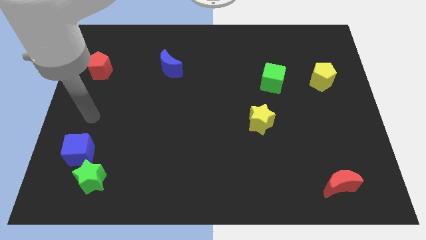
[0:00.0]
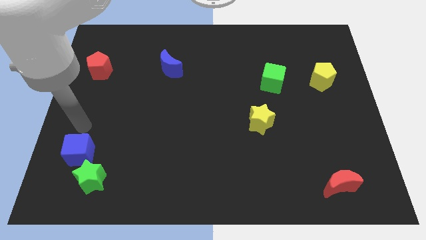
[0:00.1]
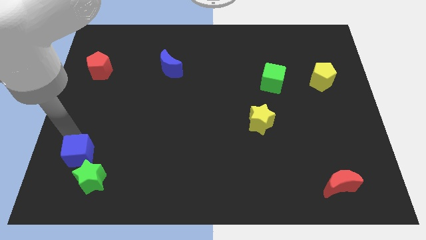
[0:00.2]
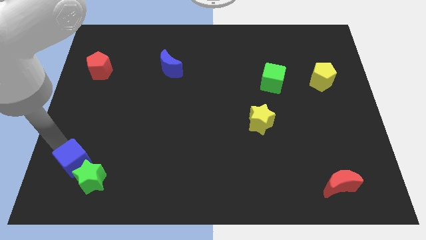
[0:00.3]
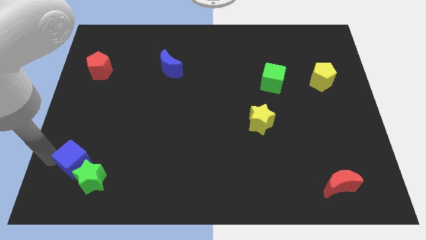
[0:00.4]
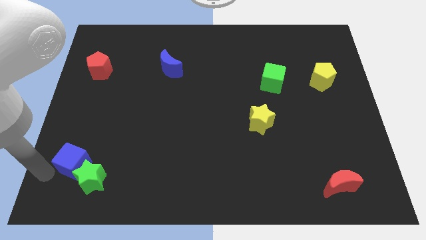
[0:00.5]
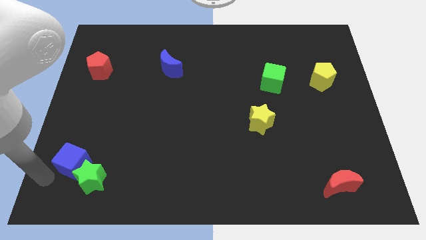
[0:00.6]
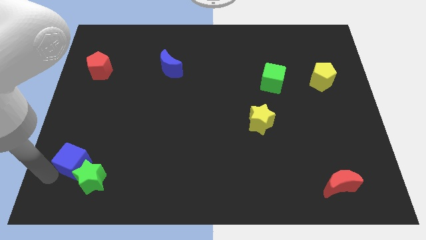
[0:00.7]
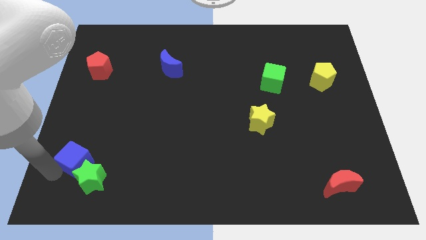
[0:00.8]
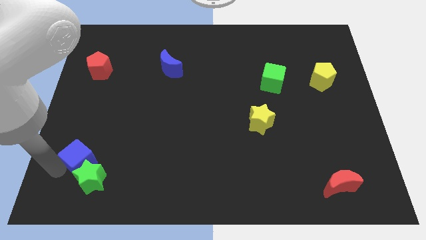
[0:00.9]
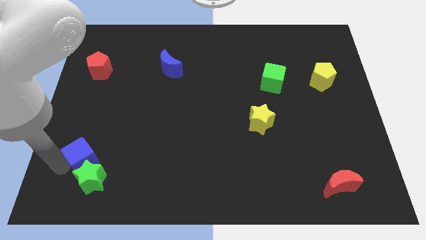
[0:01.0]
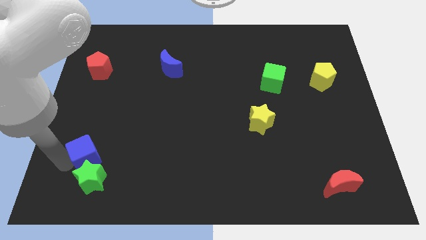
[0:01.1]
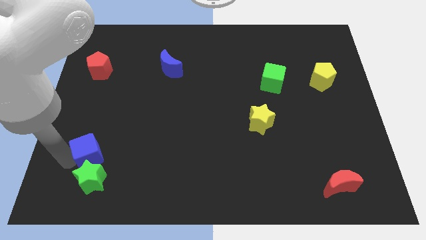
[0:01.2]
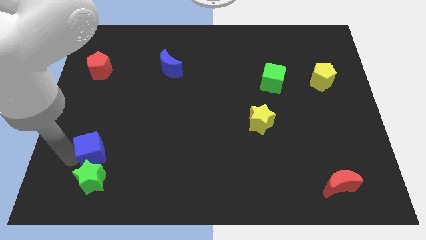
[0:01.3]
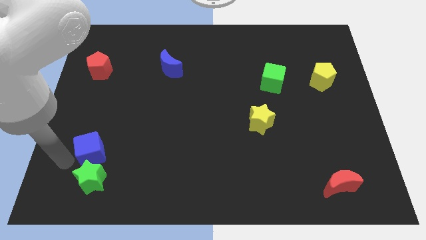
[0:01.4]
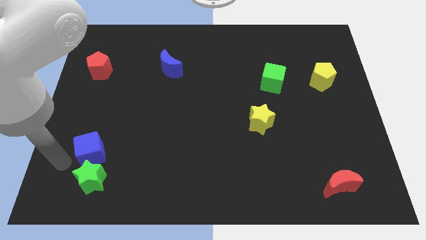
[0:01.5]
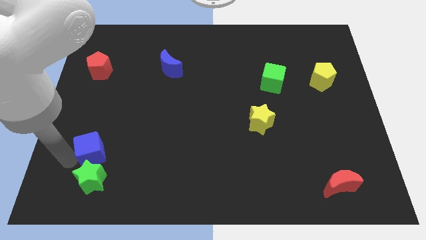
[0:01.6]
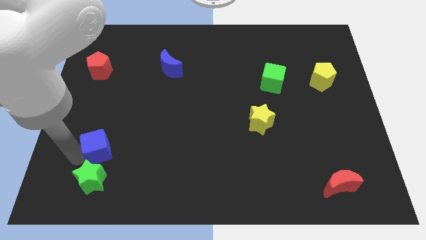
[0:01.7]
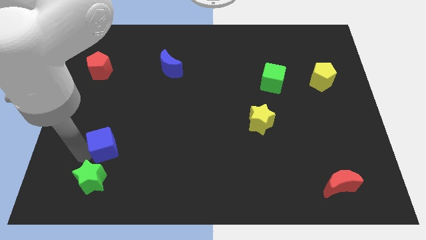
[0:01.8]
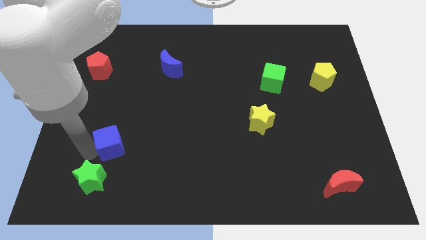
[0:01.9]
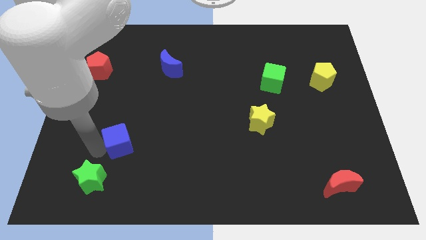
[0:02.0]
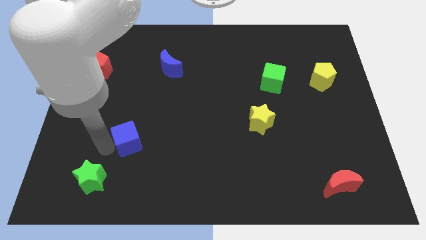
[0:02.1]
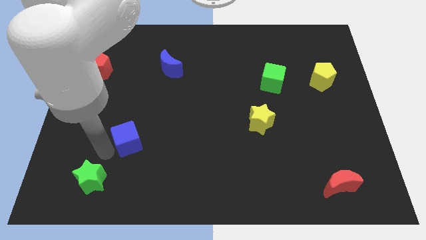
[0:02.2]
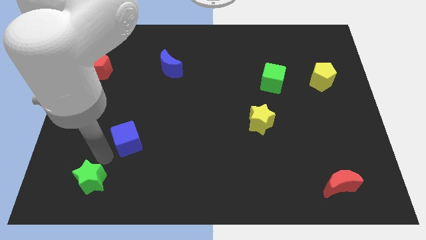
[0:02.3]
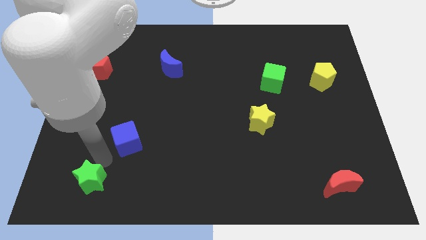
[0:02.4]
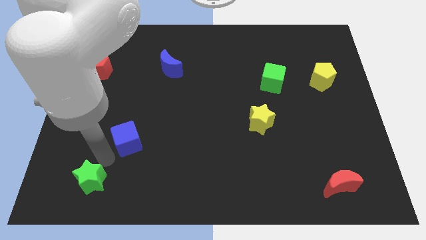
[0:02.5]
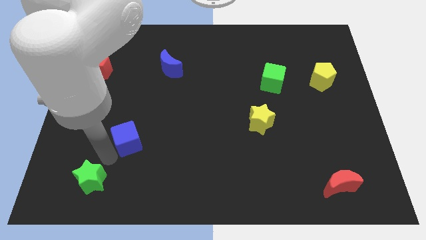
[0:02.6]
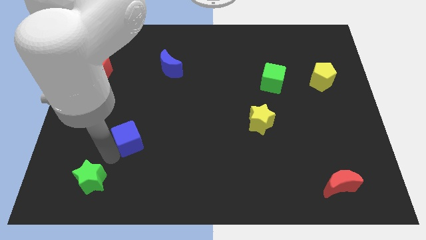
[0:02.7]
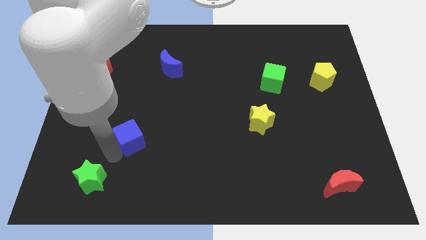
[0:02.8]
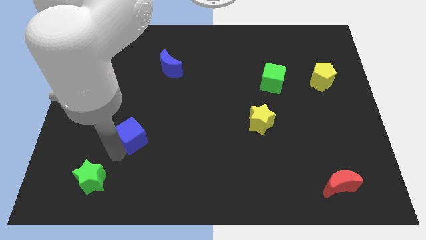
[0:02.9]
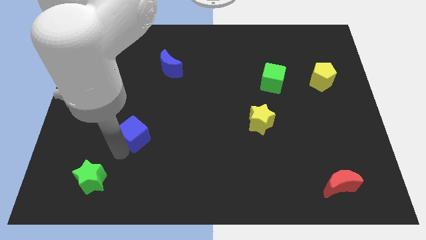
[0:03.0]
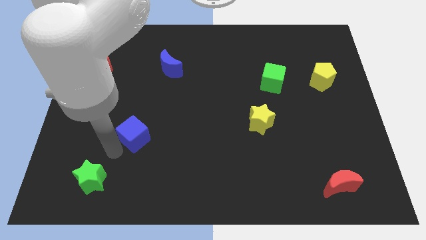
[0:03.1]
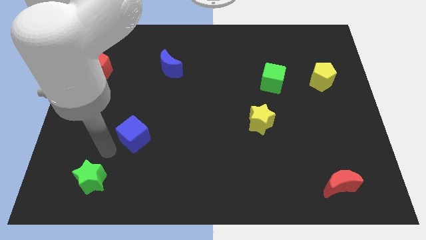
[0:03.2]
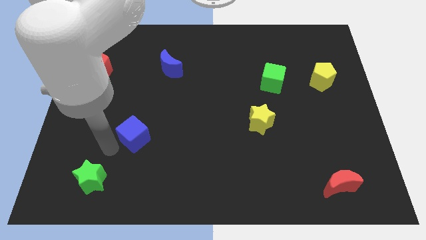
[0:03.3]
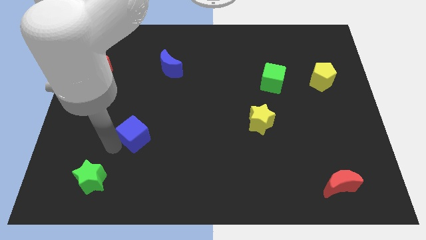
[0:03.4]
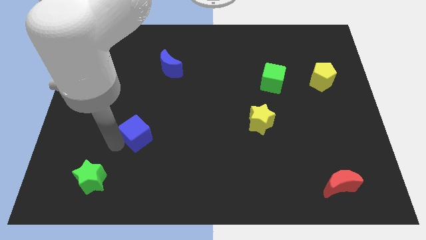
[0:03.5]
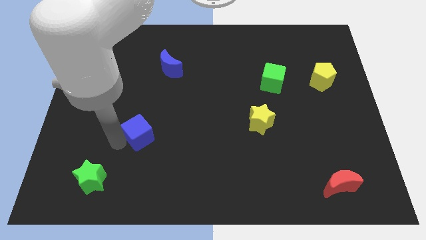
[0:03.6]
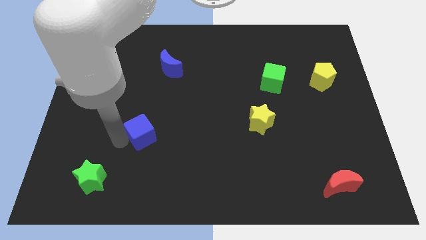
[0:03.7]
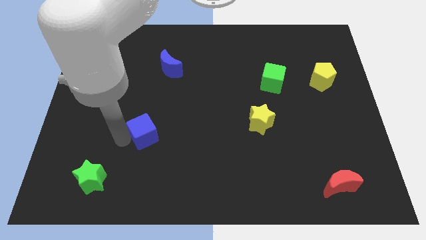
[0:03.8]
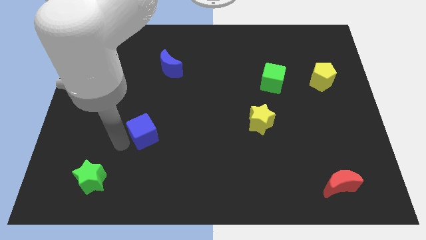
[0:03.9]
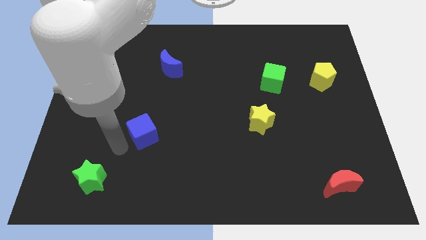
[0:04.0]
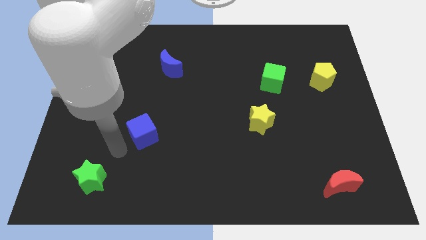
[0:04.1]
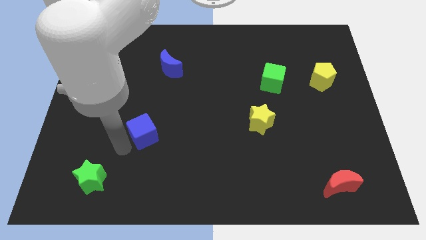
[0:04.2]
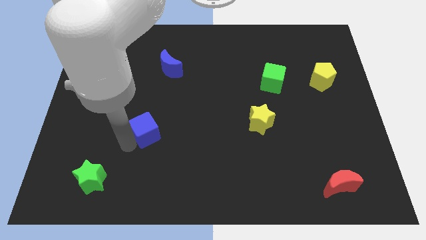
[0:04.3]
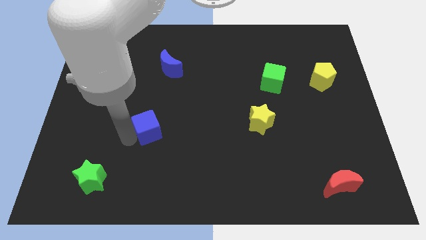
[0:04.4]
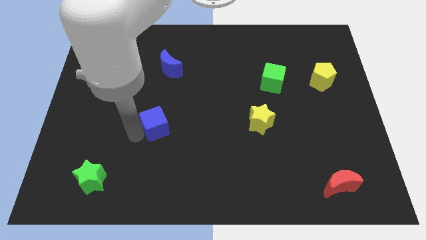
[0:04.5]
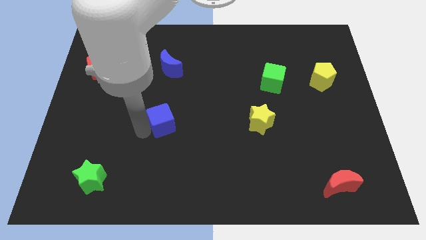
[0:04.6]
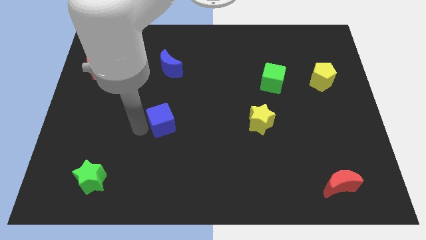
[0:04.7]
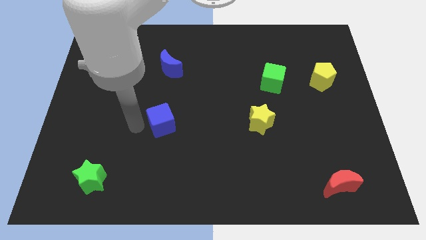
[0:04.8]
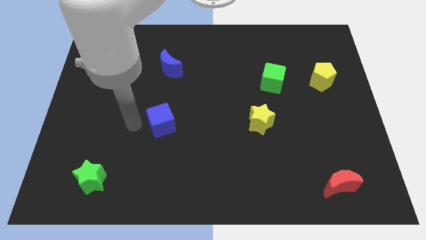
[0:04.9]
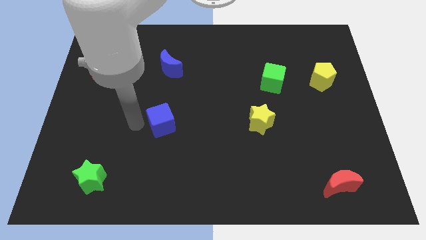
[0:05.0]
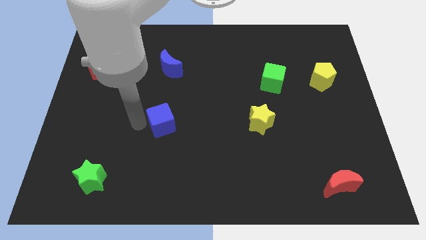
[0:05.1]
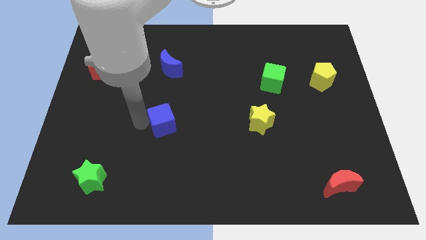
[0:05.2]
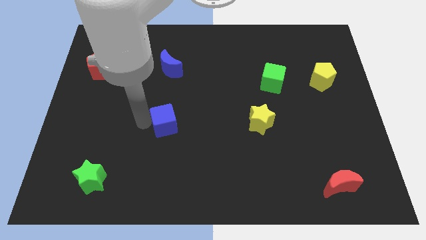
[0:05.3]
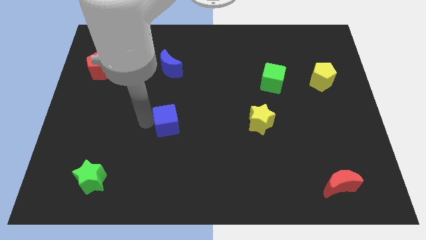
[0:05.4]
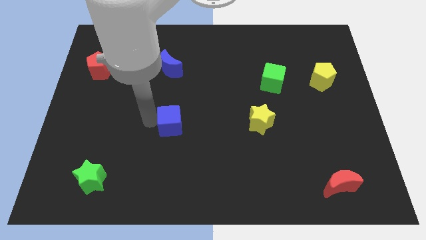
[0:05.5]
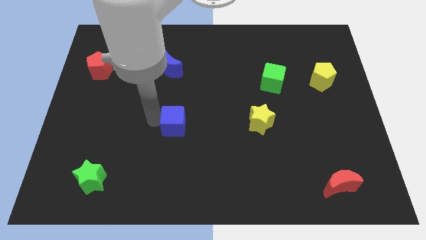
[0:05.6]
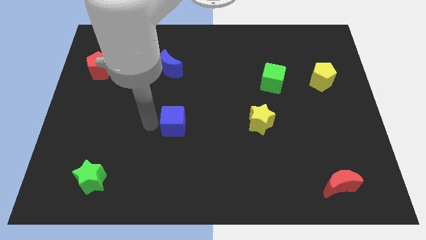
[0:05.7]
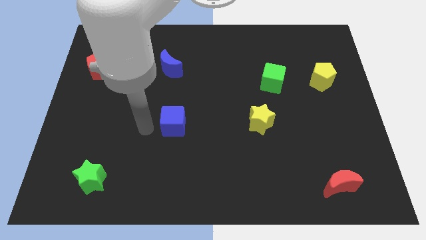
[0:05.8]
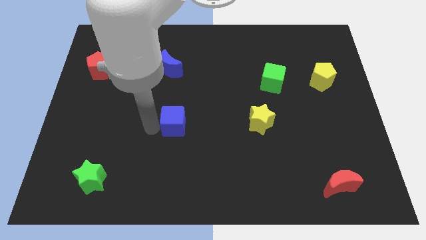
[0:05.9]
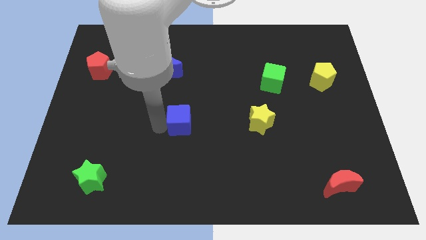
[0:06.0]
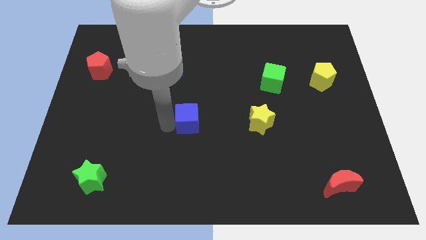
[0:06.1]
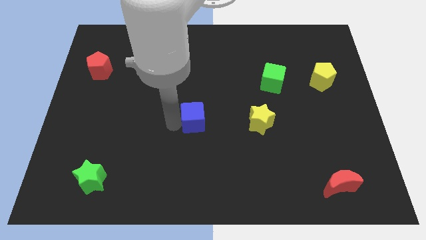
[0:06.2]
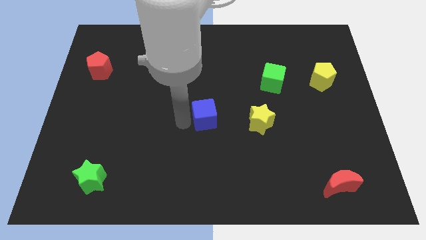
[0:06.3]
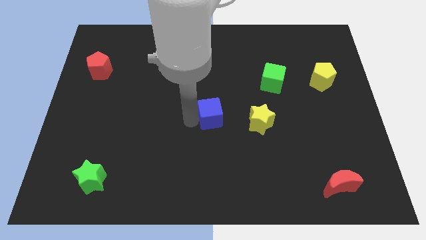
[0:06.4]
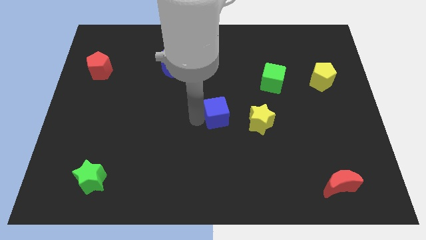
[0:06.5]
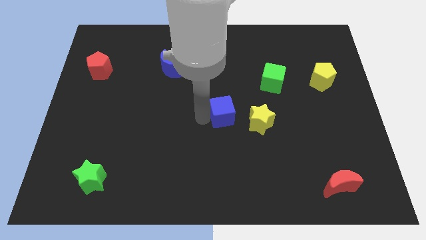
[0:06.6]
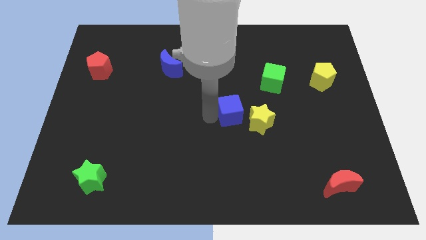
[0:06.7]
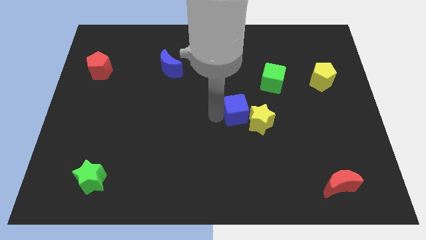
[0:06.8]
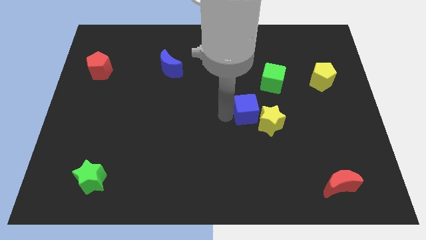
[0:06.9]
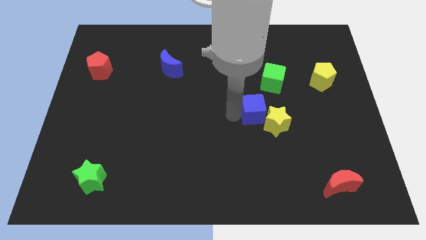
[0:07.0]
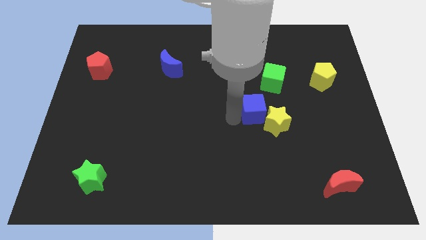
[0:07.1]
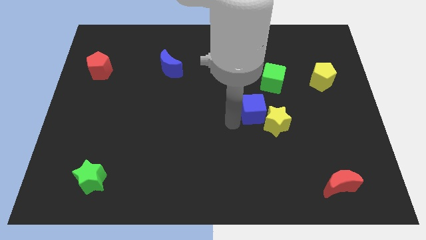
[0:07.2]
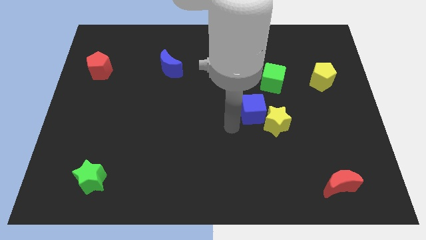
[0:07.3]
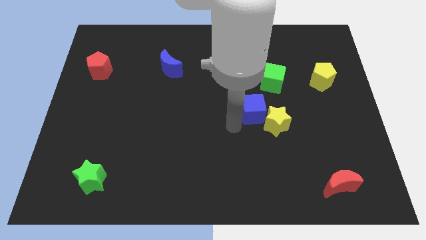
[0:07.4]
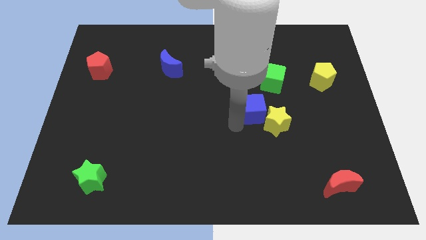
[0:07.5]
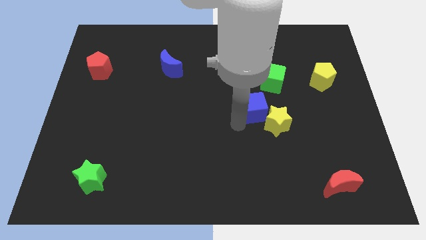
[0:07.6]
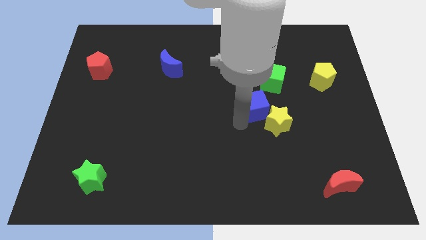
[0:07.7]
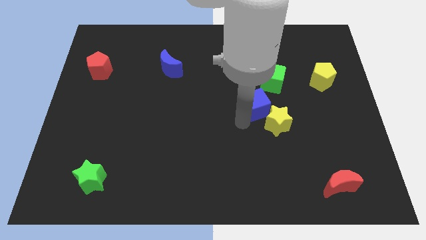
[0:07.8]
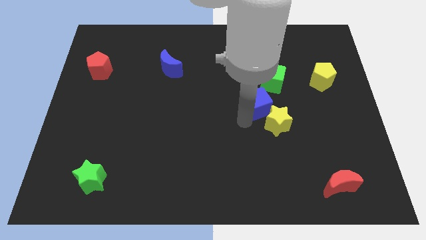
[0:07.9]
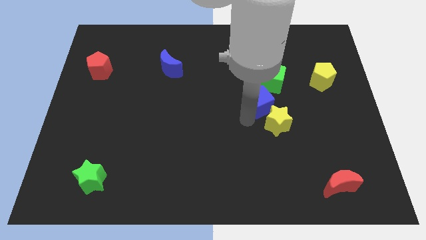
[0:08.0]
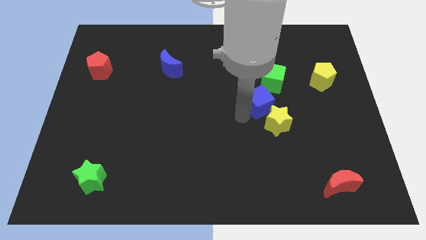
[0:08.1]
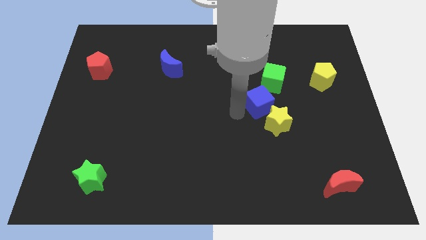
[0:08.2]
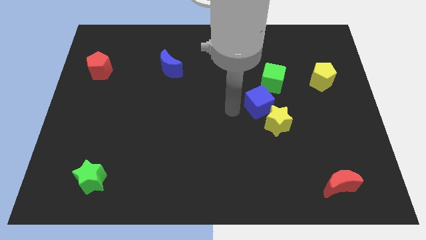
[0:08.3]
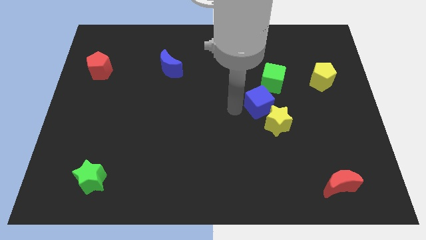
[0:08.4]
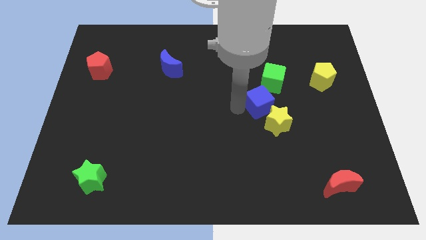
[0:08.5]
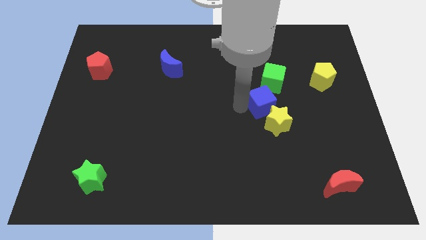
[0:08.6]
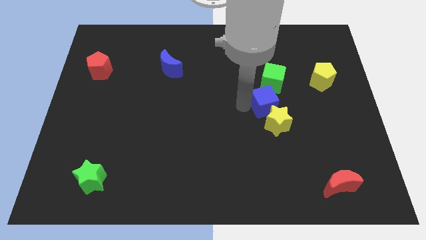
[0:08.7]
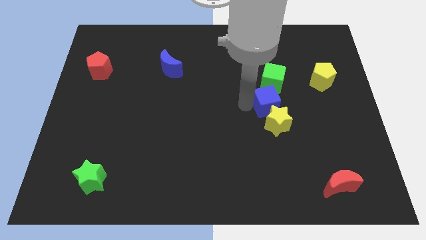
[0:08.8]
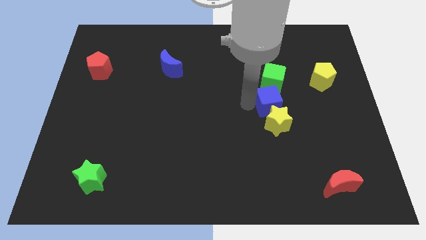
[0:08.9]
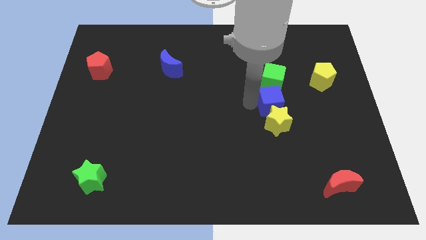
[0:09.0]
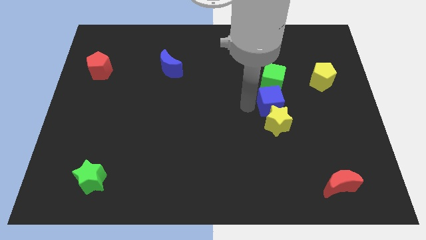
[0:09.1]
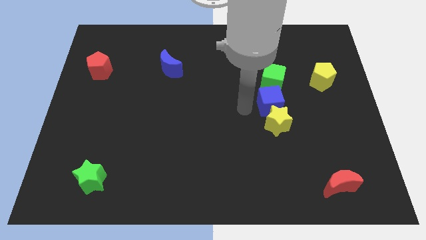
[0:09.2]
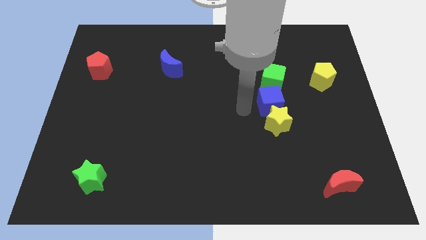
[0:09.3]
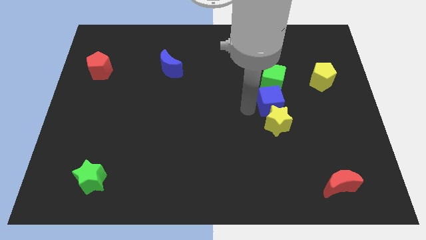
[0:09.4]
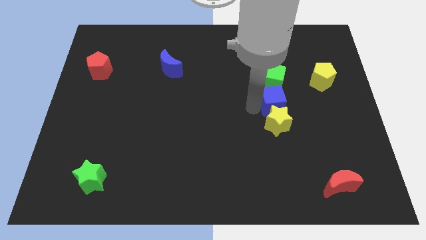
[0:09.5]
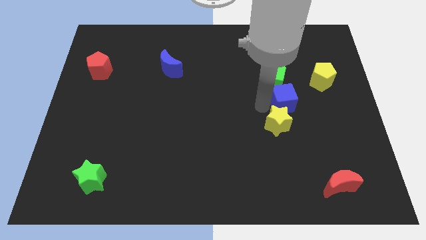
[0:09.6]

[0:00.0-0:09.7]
move the blue cube diagonally down and to the left of the yellow pentagon
